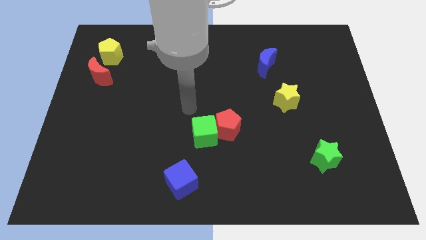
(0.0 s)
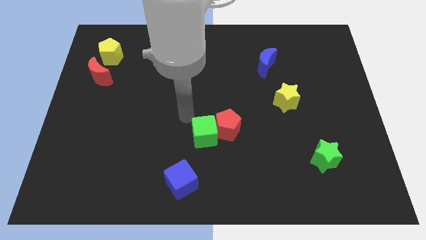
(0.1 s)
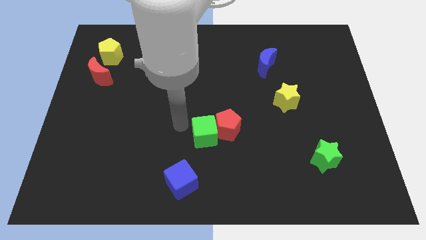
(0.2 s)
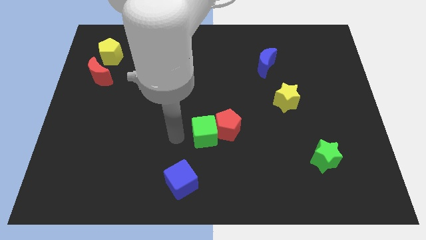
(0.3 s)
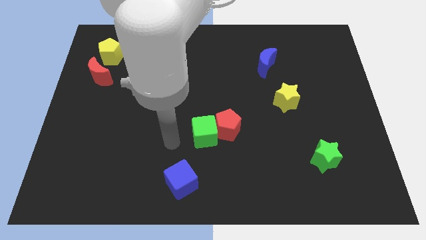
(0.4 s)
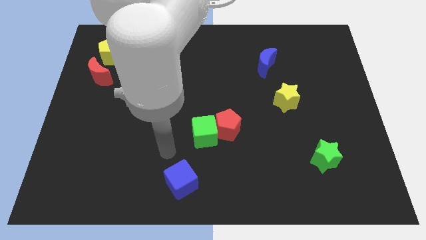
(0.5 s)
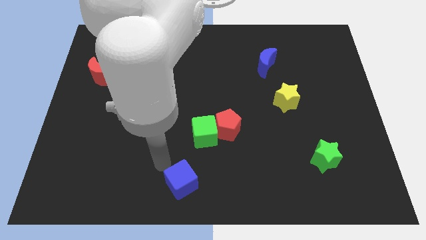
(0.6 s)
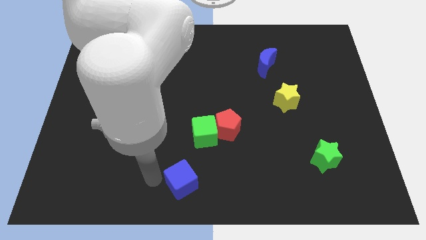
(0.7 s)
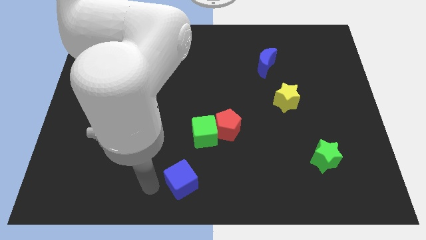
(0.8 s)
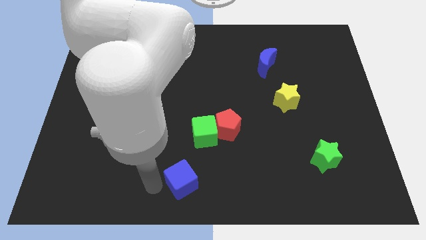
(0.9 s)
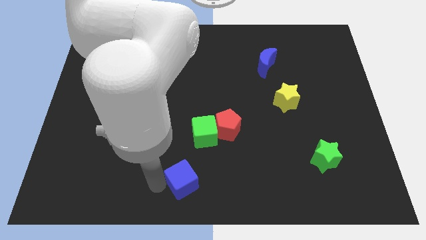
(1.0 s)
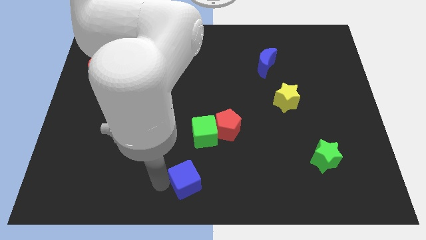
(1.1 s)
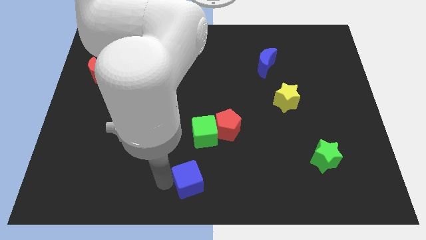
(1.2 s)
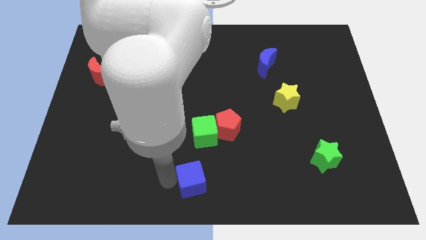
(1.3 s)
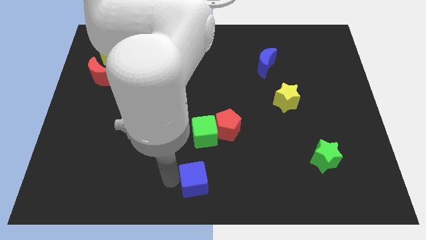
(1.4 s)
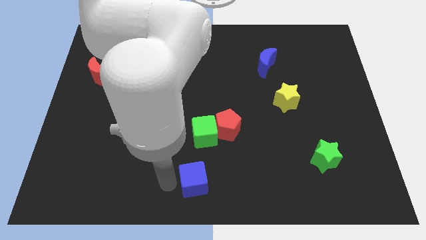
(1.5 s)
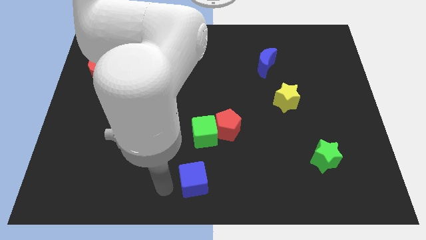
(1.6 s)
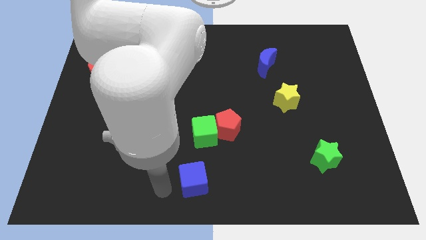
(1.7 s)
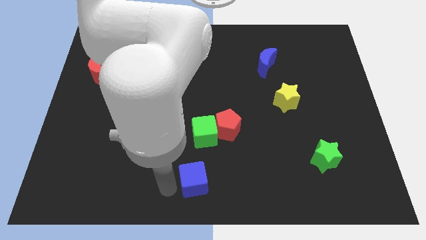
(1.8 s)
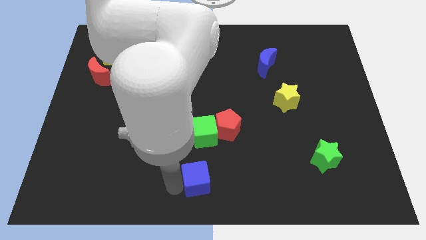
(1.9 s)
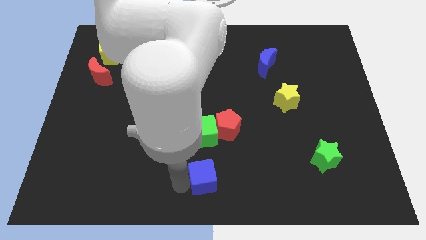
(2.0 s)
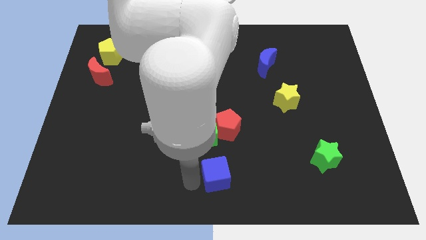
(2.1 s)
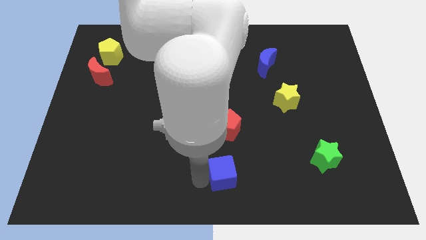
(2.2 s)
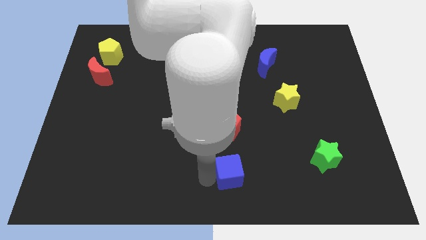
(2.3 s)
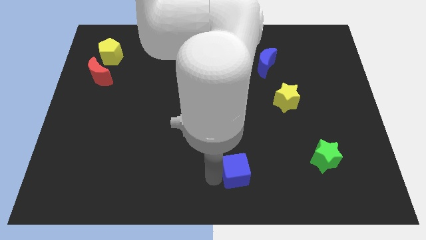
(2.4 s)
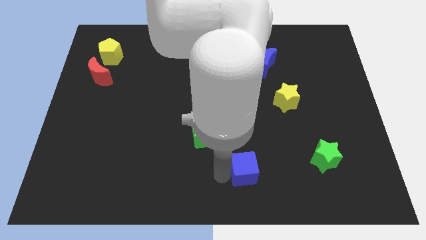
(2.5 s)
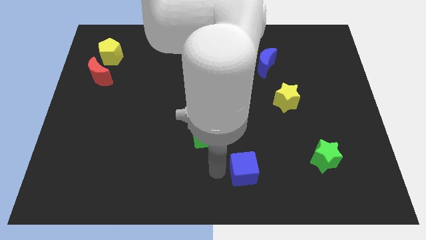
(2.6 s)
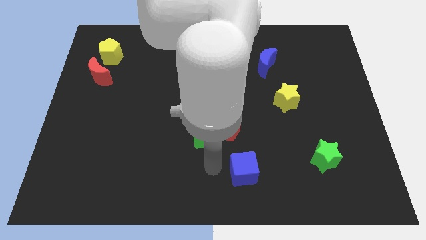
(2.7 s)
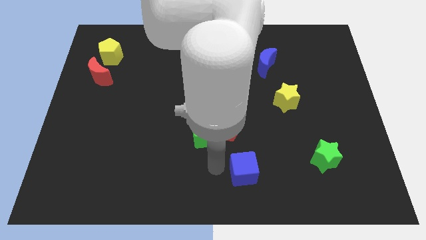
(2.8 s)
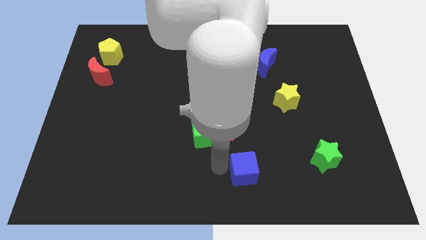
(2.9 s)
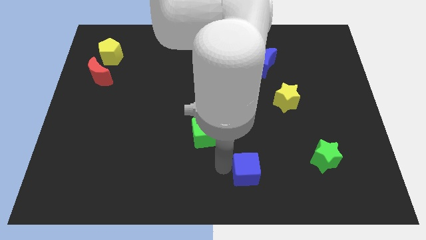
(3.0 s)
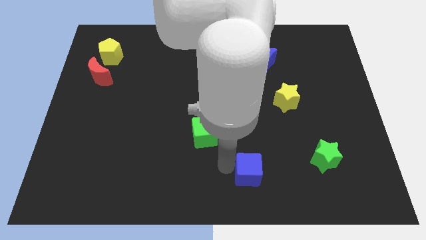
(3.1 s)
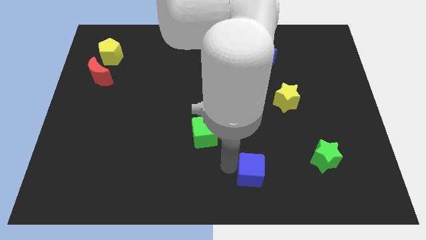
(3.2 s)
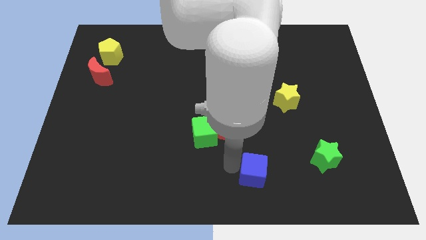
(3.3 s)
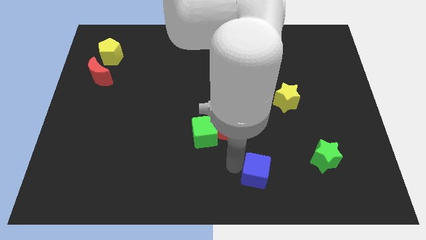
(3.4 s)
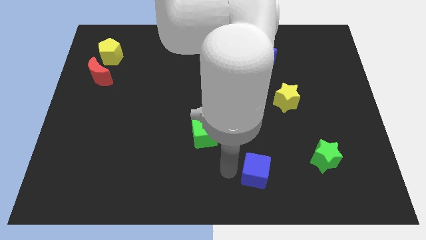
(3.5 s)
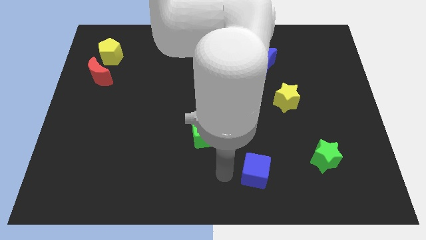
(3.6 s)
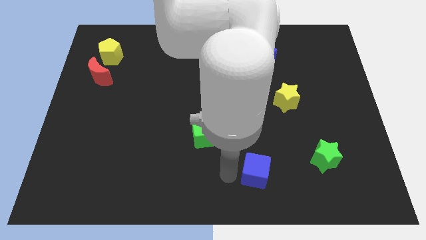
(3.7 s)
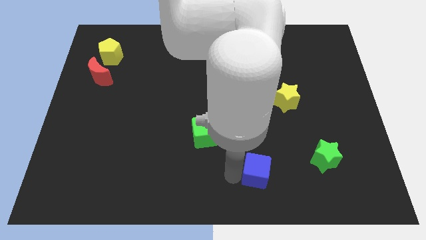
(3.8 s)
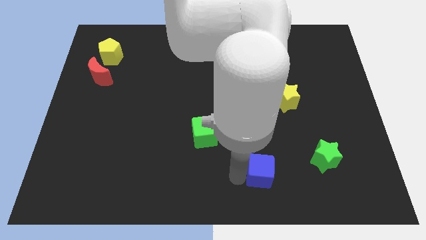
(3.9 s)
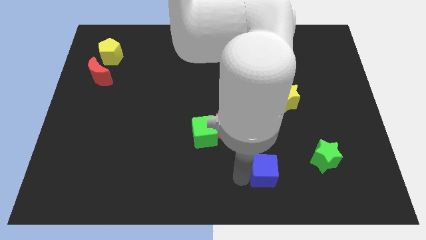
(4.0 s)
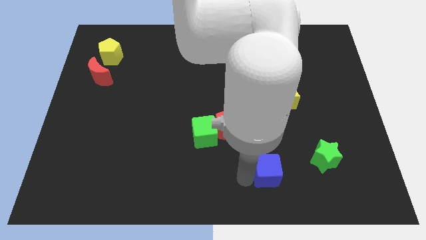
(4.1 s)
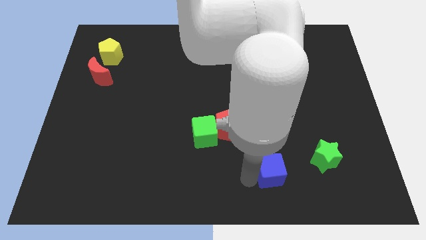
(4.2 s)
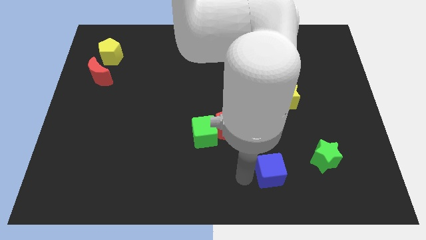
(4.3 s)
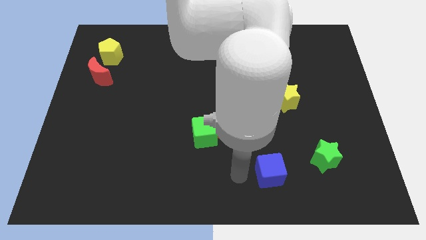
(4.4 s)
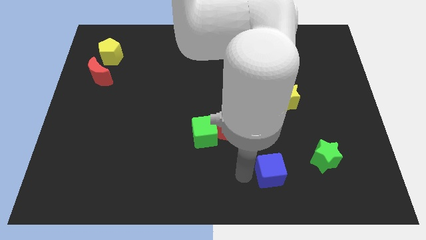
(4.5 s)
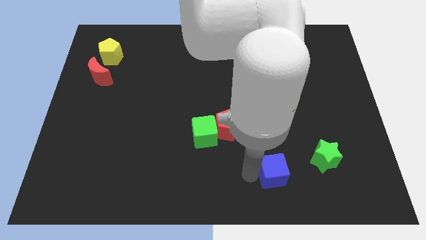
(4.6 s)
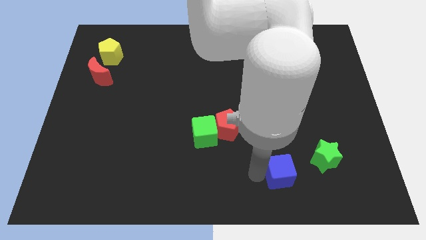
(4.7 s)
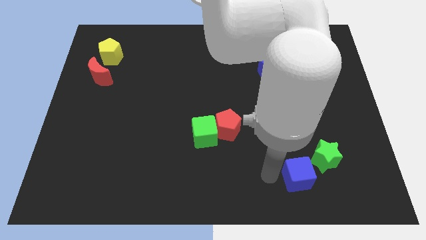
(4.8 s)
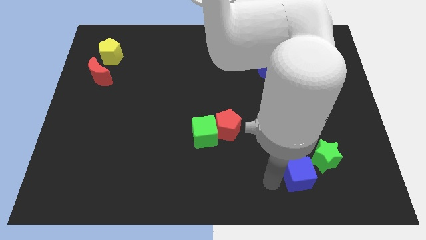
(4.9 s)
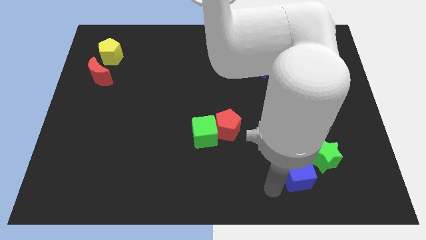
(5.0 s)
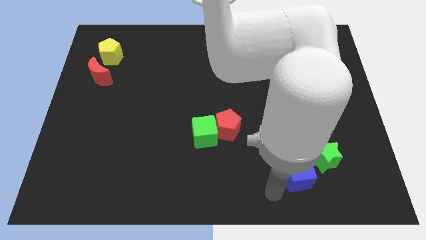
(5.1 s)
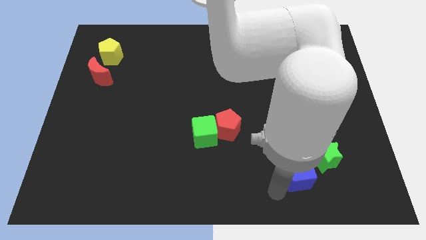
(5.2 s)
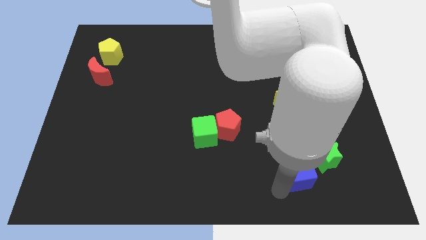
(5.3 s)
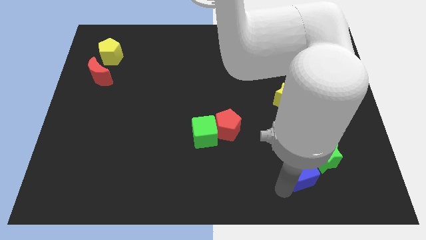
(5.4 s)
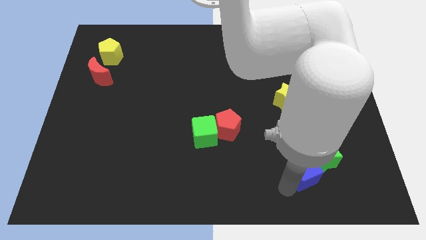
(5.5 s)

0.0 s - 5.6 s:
push the blue cube towards the green star

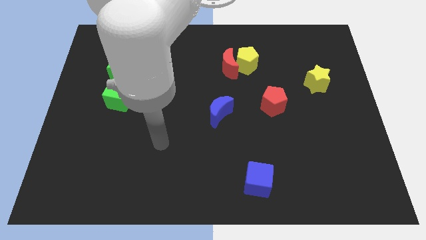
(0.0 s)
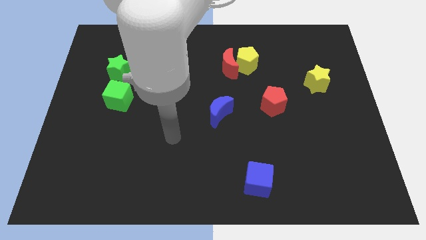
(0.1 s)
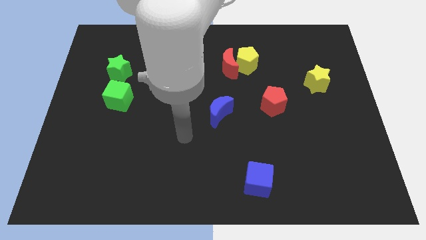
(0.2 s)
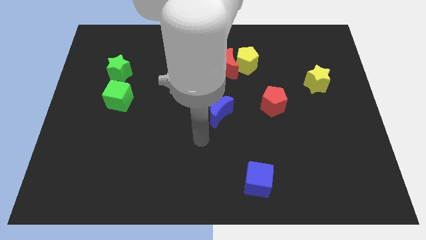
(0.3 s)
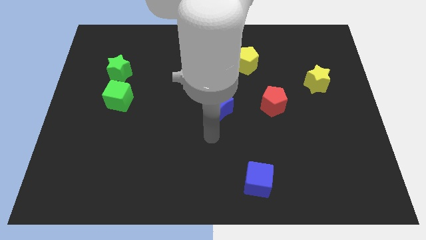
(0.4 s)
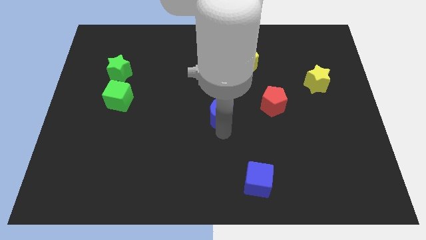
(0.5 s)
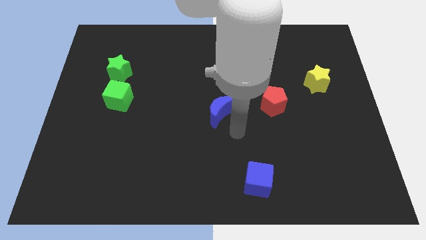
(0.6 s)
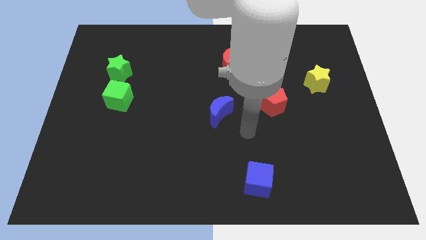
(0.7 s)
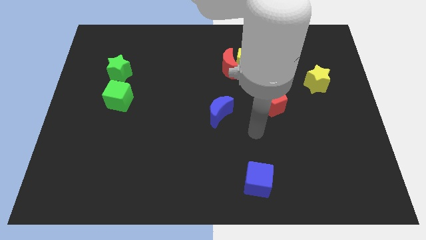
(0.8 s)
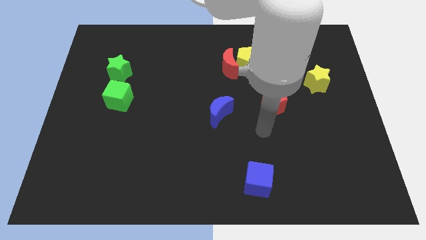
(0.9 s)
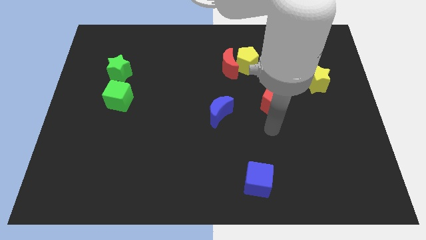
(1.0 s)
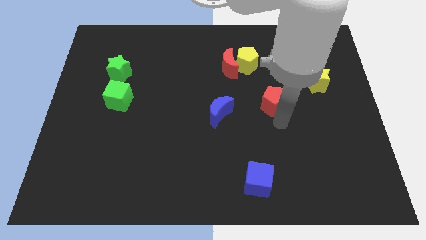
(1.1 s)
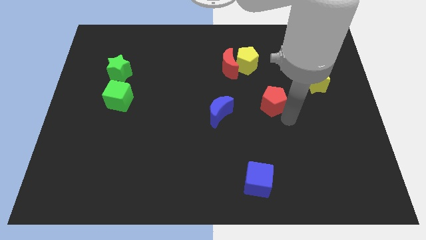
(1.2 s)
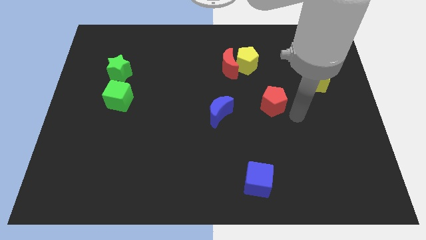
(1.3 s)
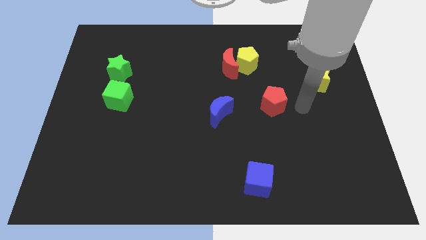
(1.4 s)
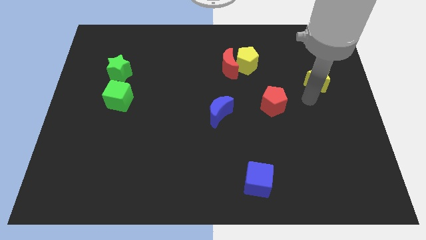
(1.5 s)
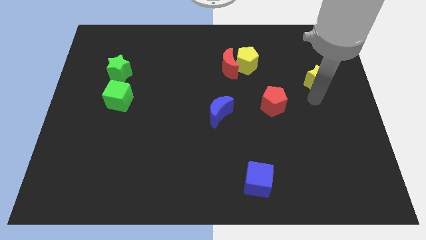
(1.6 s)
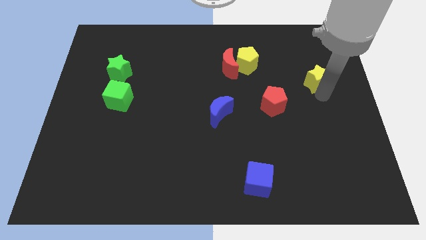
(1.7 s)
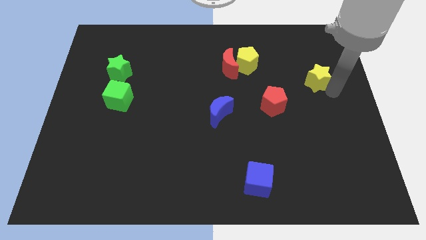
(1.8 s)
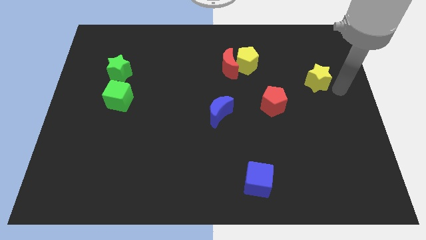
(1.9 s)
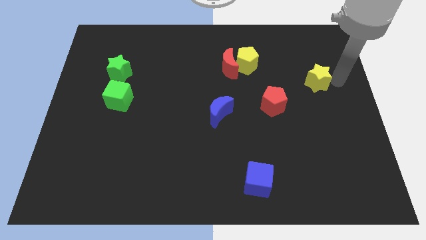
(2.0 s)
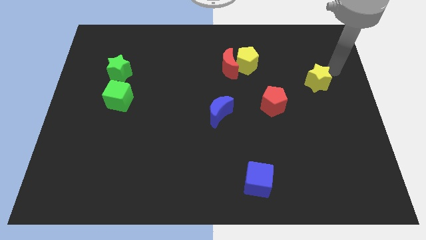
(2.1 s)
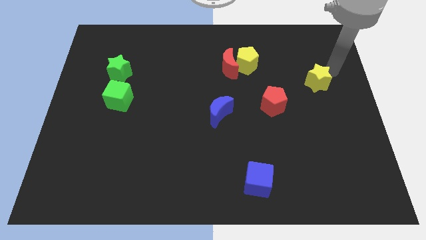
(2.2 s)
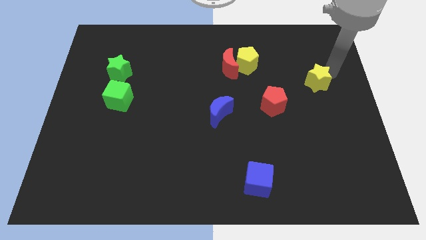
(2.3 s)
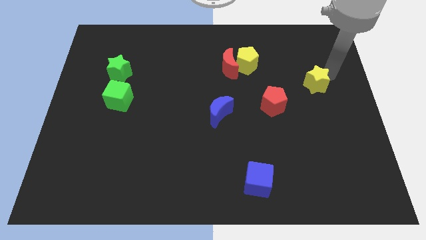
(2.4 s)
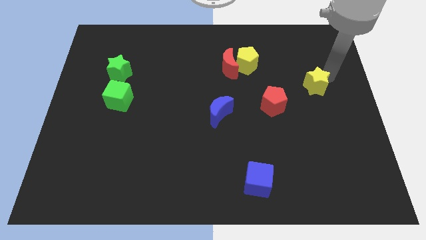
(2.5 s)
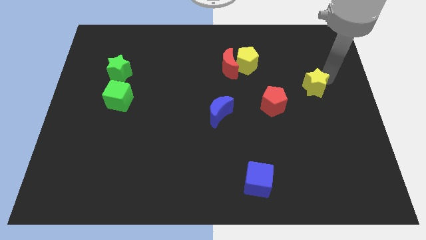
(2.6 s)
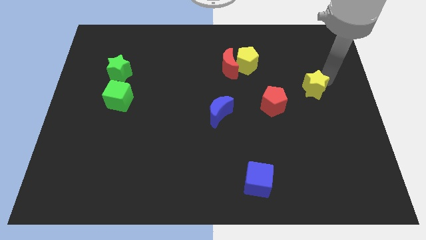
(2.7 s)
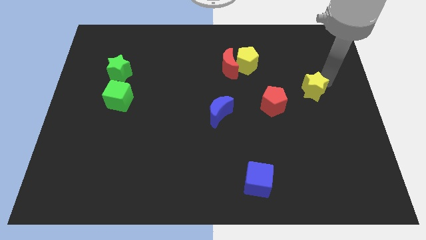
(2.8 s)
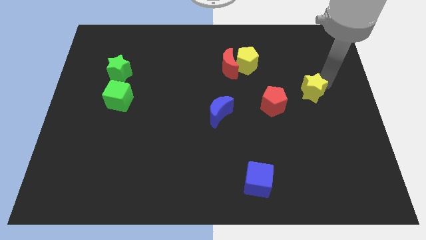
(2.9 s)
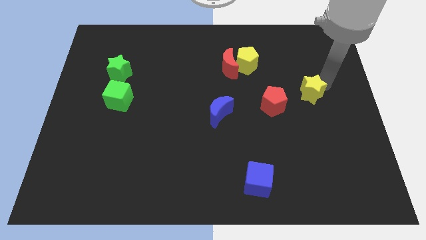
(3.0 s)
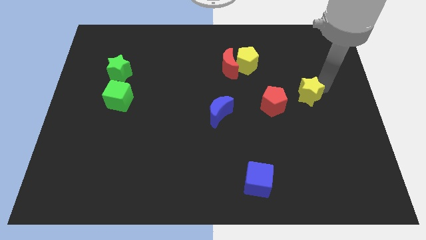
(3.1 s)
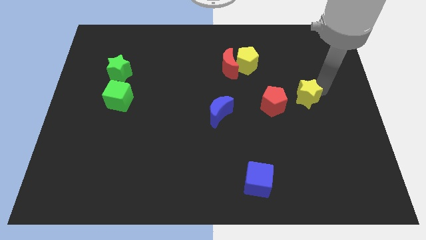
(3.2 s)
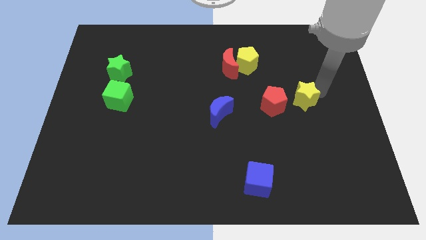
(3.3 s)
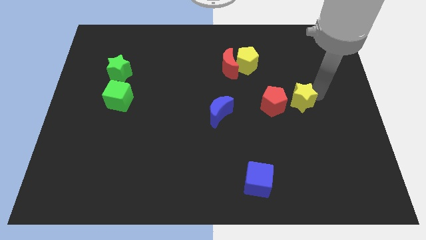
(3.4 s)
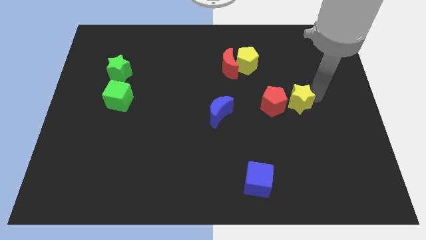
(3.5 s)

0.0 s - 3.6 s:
slide the yellow star close to the red pentagon
